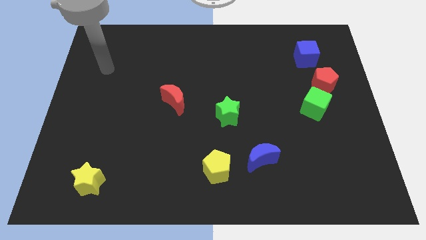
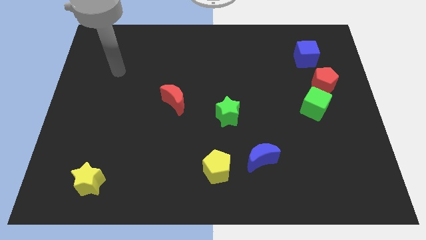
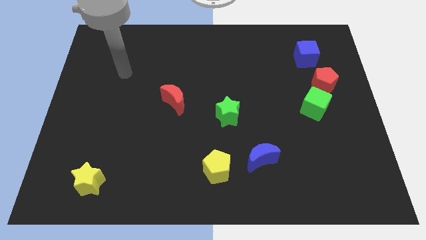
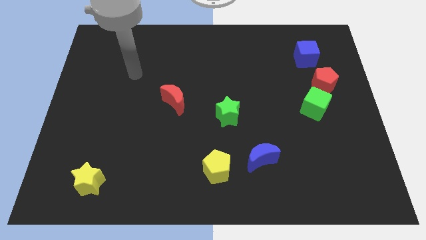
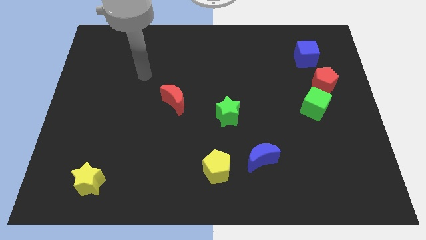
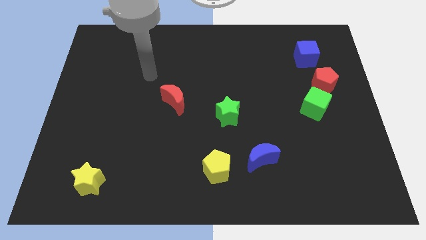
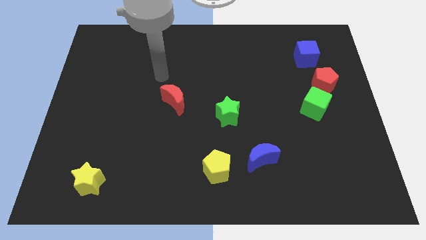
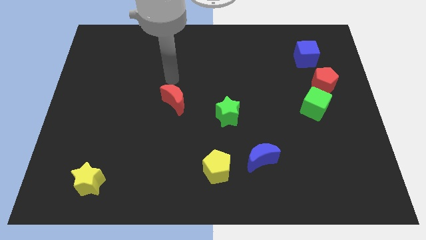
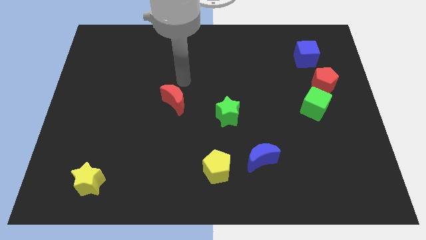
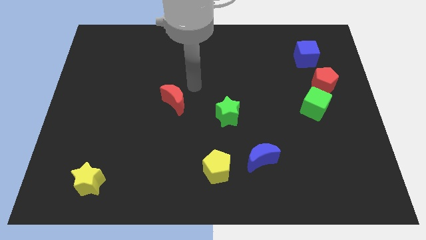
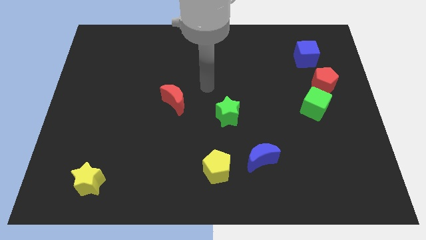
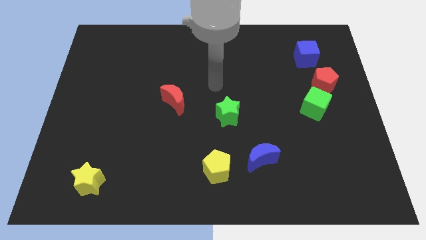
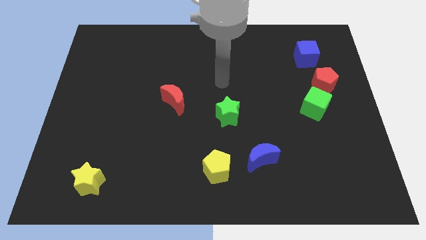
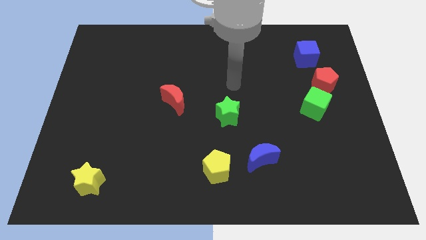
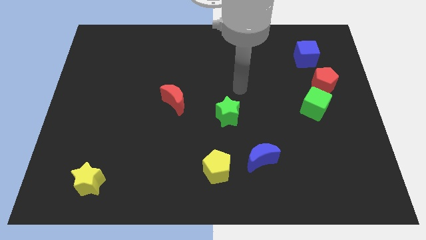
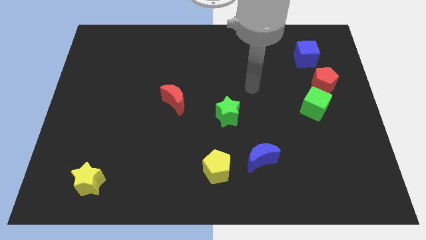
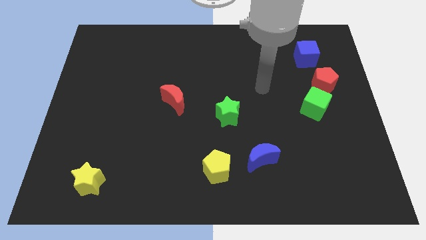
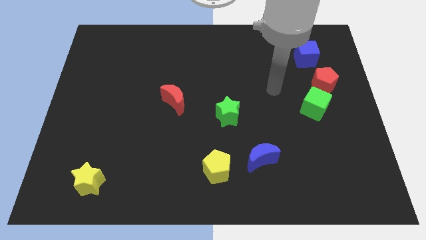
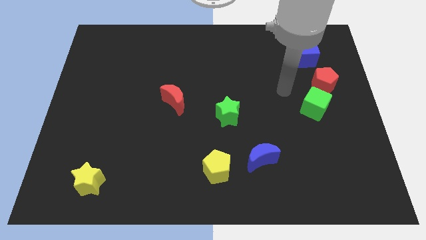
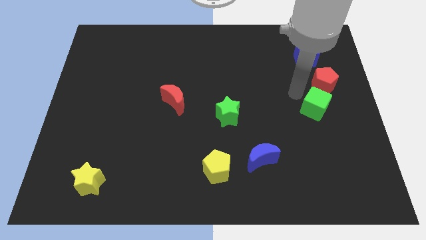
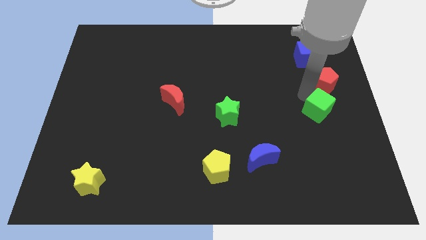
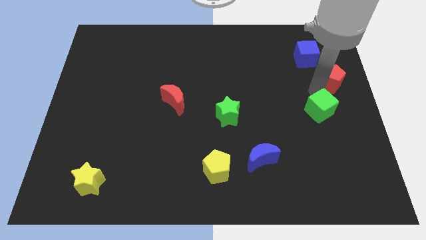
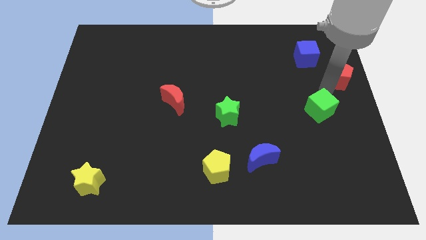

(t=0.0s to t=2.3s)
move the green cube away from the red pentagon

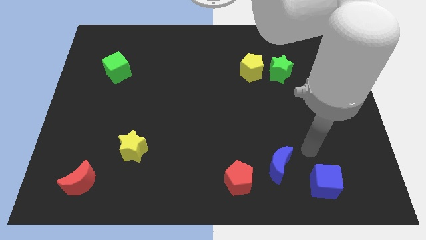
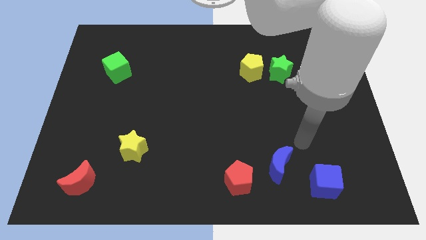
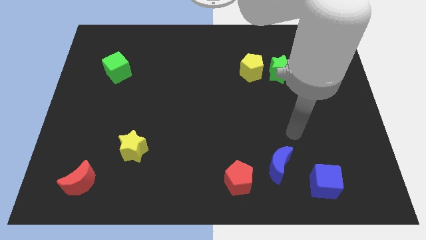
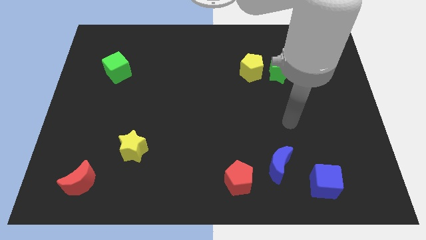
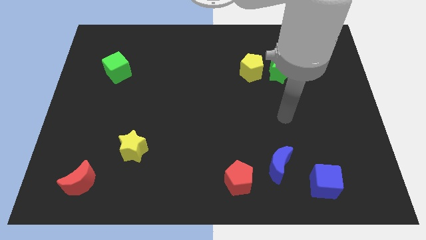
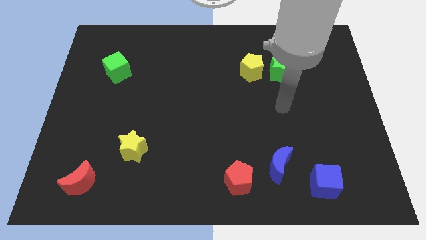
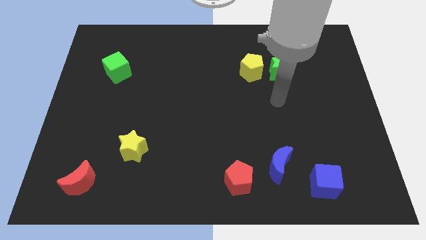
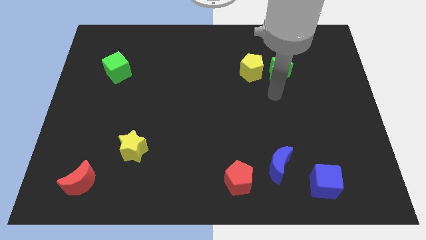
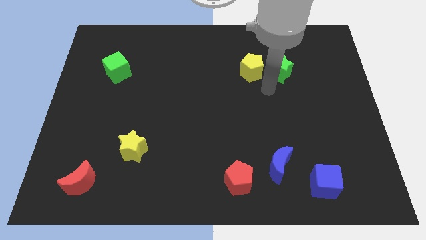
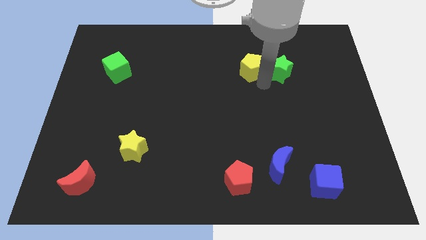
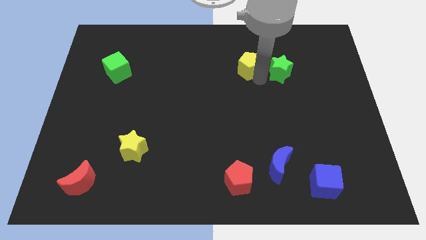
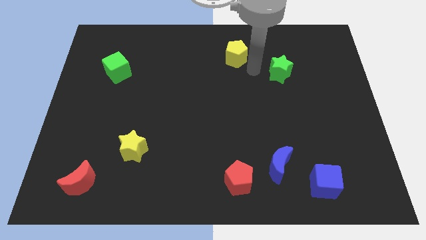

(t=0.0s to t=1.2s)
move the green star away from the yellow pentagon

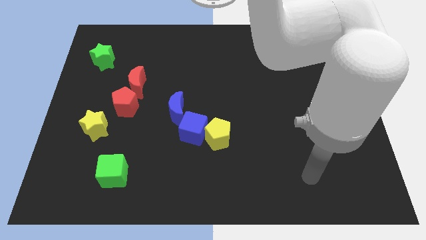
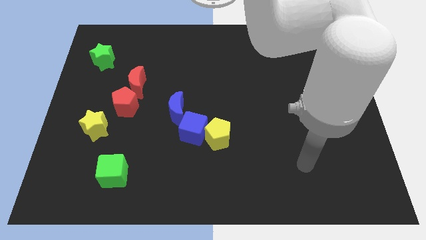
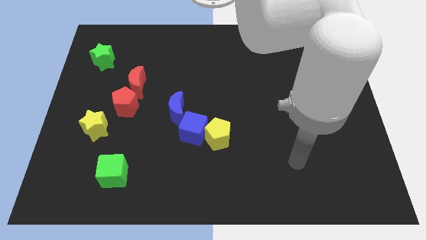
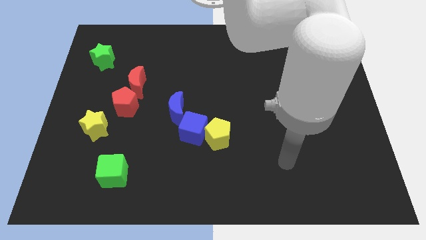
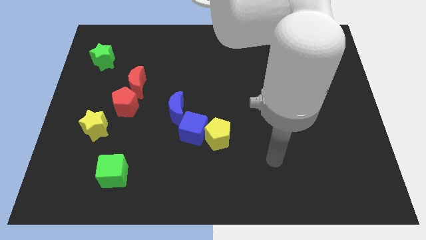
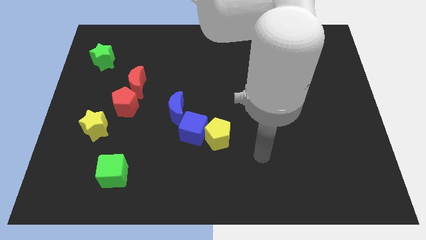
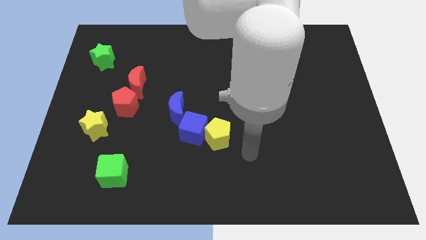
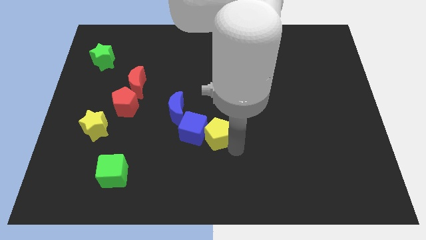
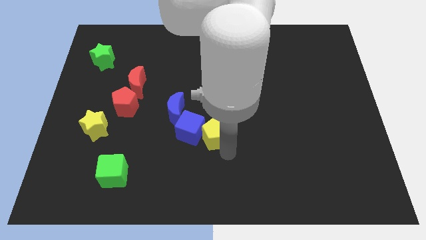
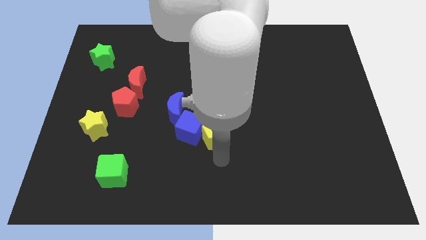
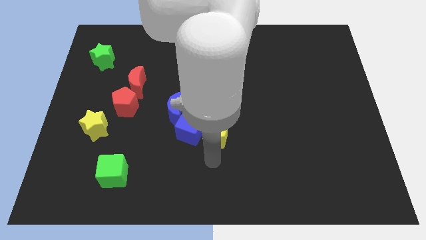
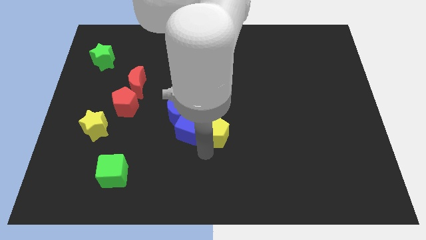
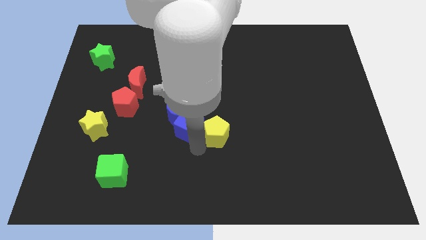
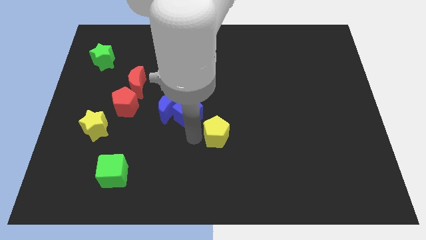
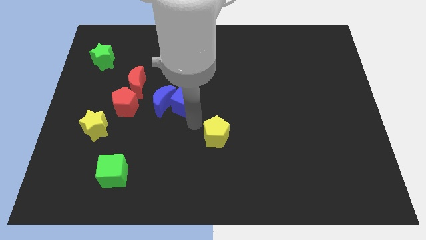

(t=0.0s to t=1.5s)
separate the yellow pentagon from the blue cube

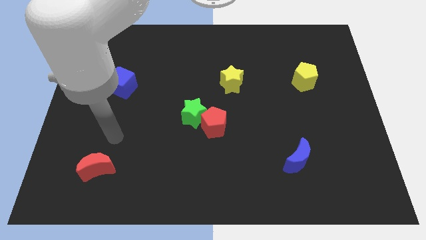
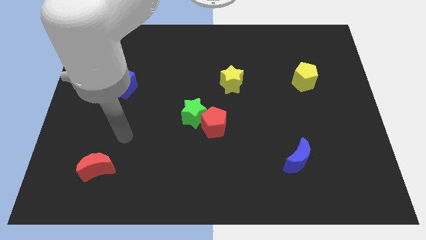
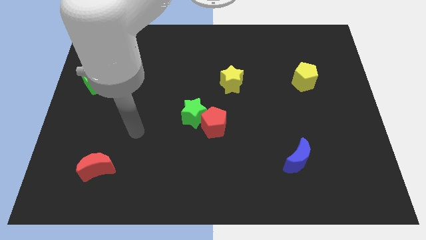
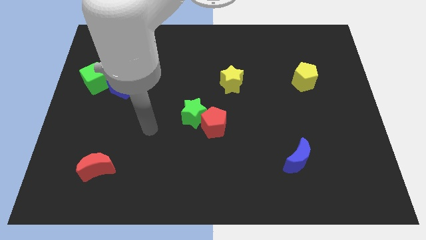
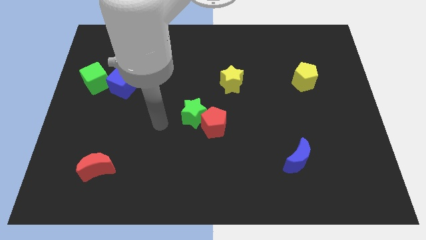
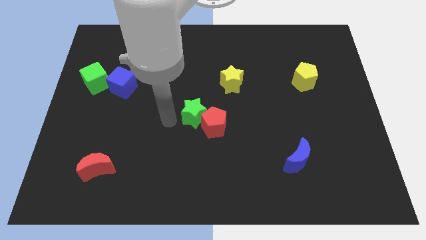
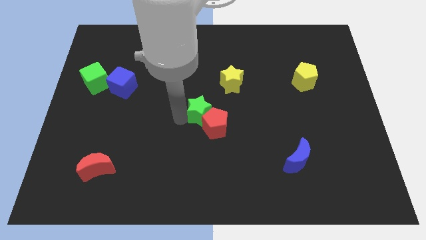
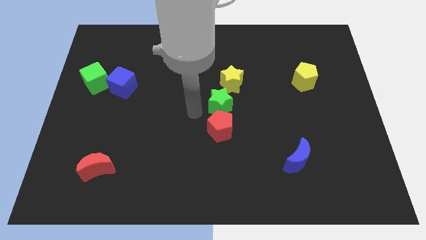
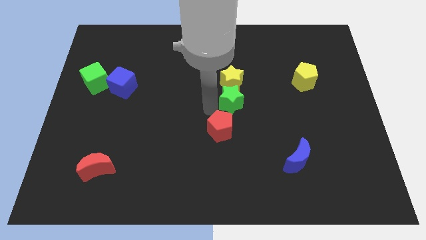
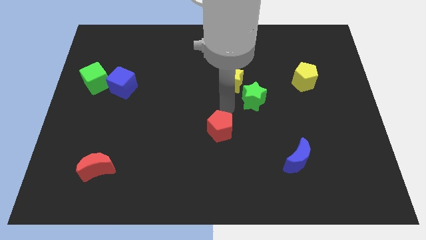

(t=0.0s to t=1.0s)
move the red pentagon away from the green star

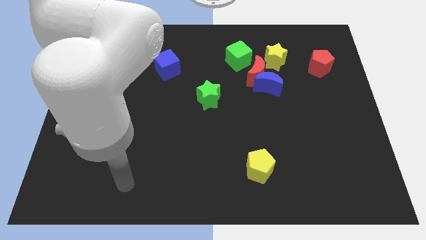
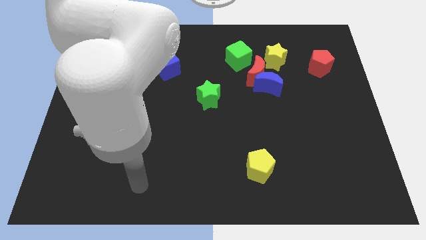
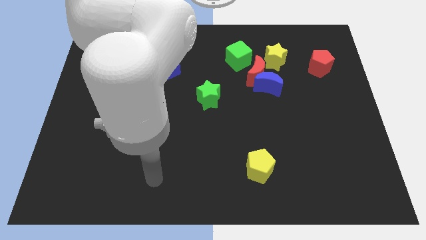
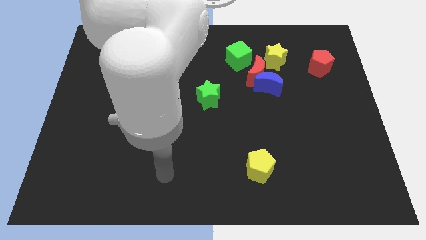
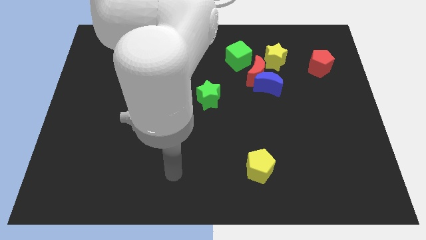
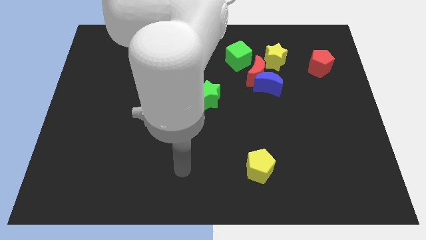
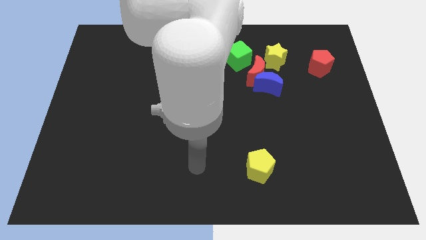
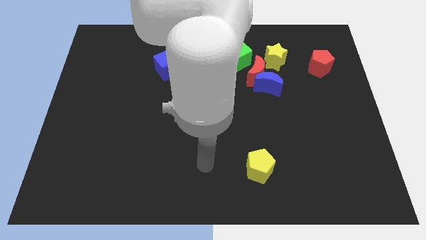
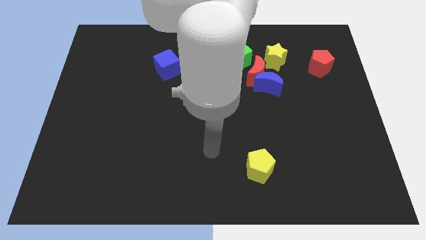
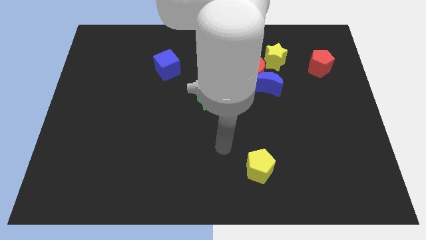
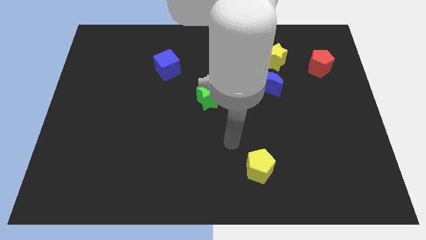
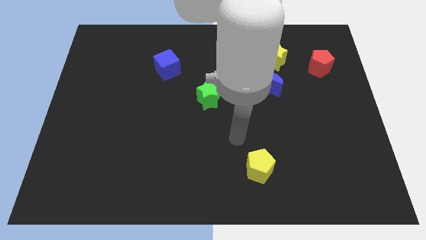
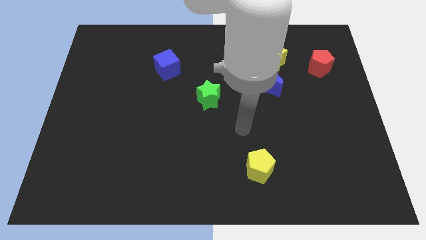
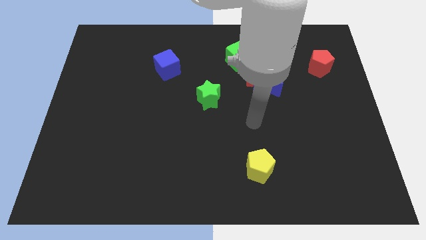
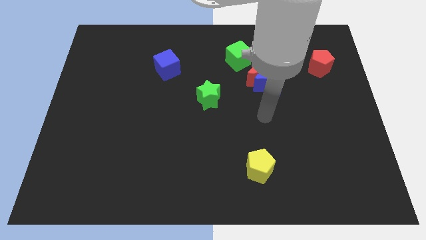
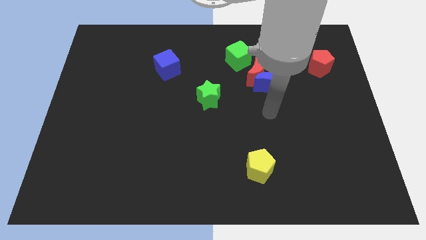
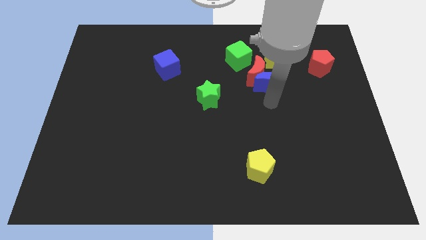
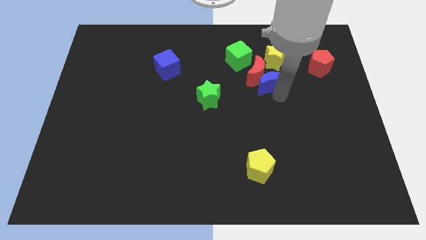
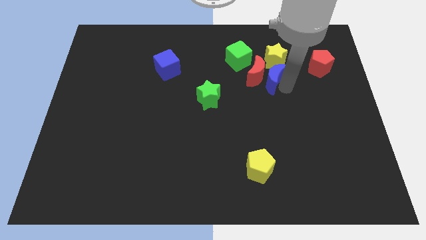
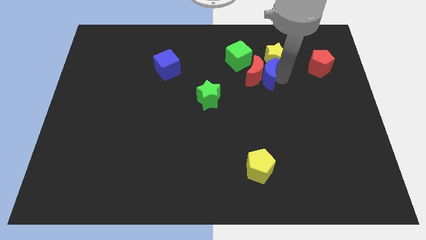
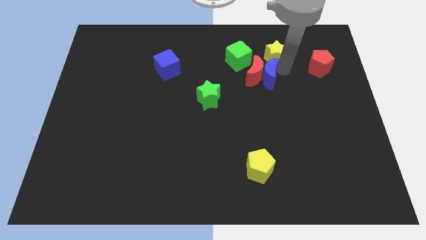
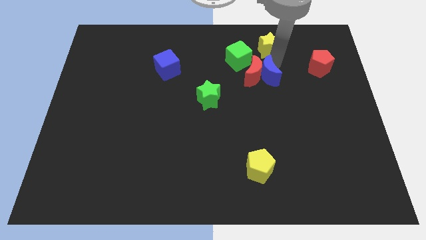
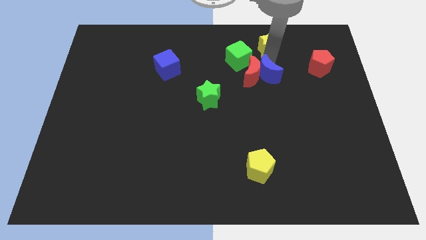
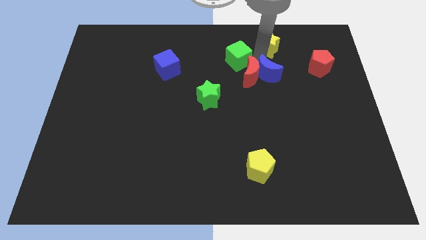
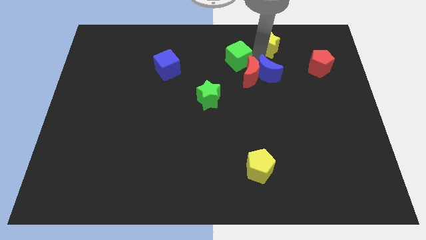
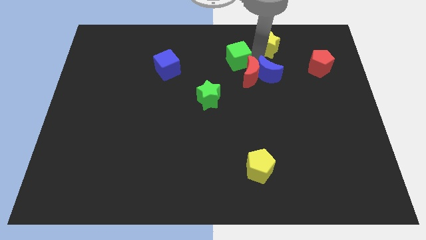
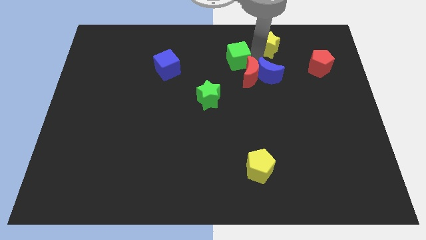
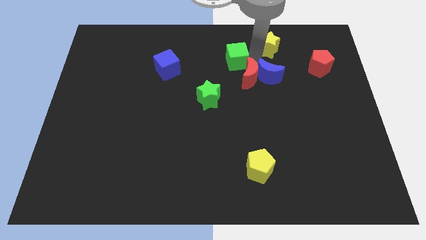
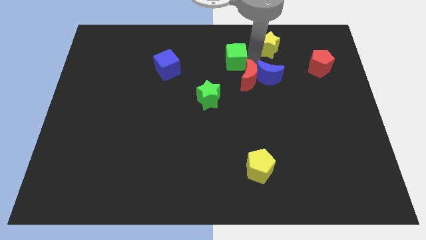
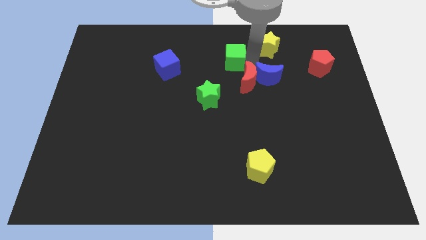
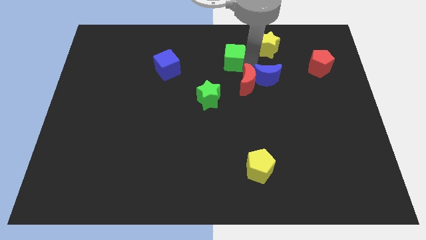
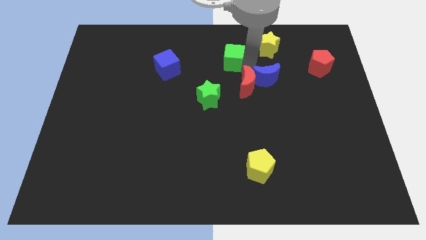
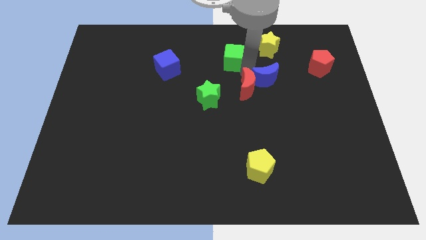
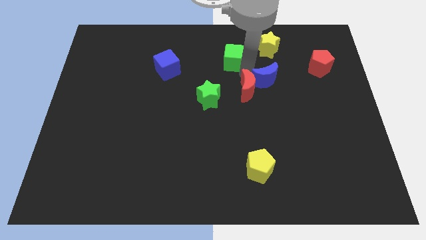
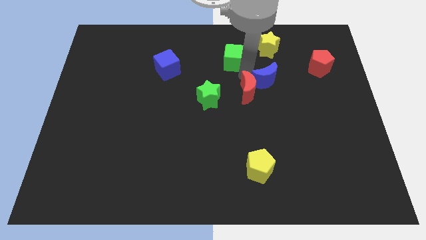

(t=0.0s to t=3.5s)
move the red moon away from the blue moon, green cube, and yellow star
